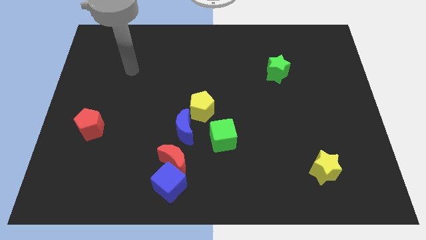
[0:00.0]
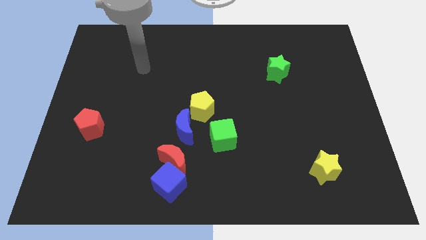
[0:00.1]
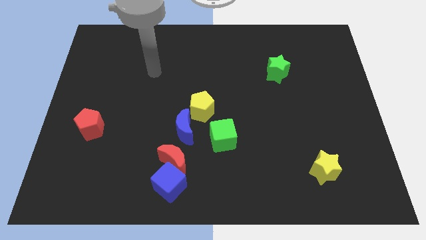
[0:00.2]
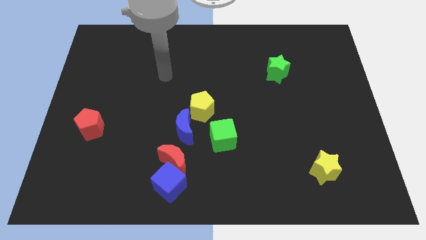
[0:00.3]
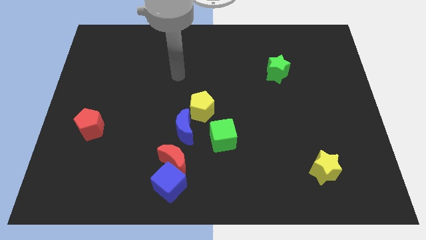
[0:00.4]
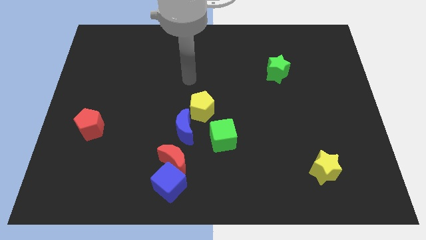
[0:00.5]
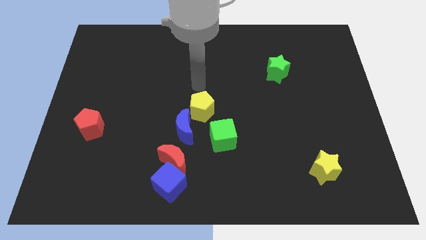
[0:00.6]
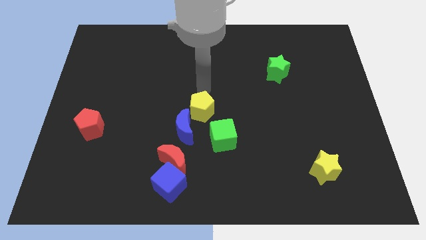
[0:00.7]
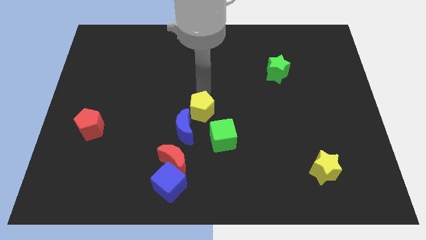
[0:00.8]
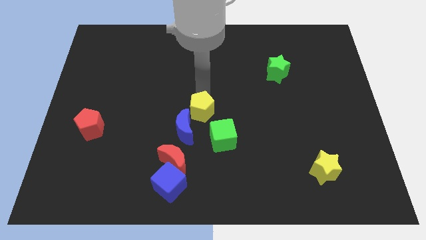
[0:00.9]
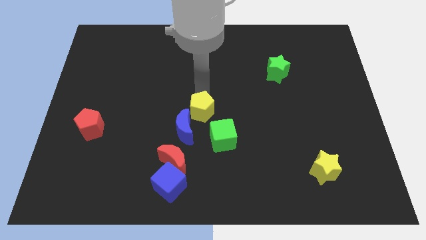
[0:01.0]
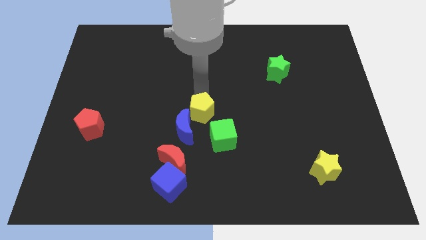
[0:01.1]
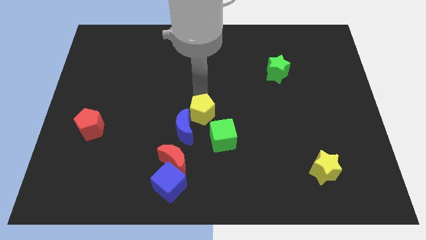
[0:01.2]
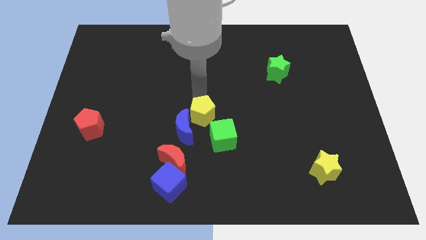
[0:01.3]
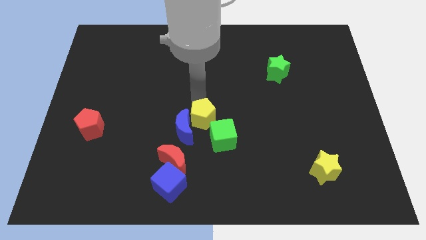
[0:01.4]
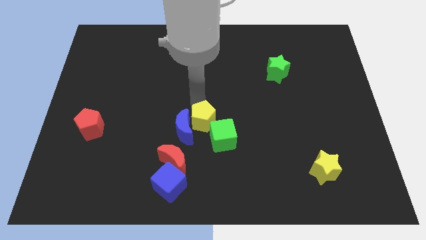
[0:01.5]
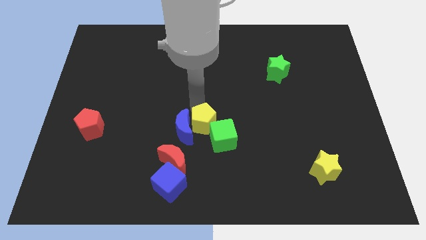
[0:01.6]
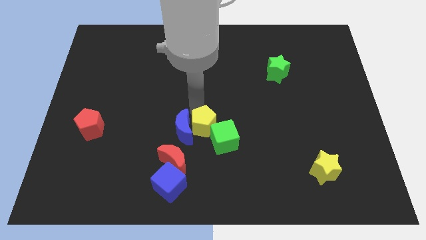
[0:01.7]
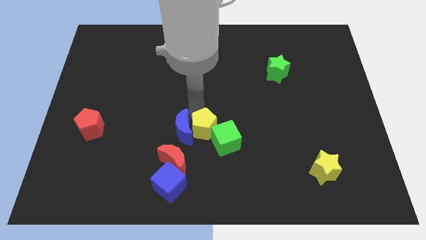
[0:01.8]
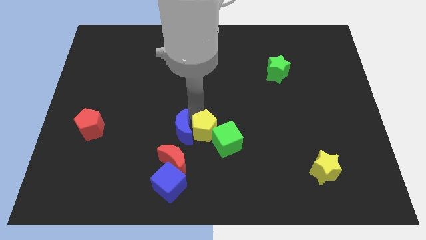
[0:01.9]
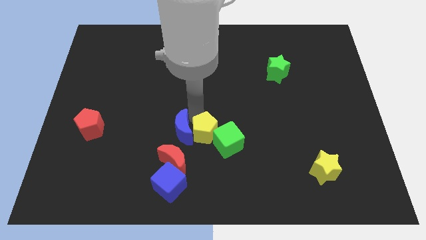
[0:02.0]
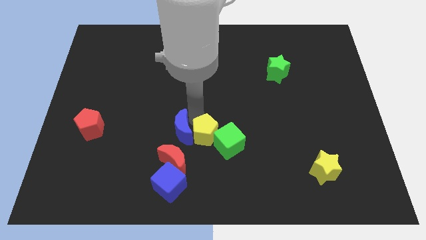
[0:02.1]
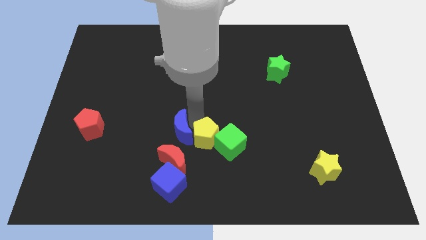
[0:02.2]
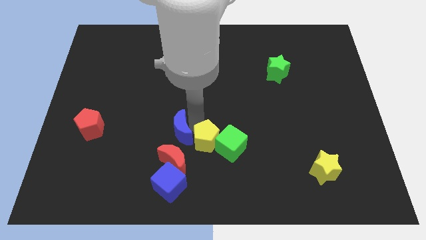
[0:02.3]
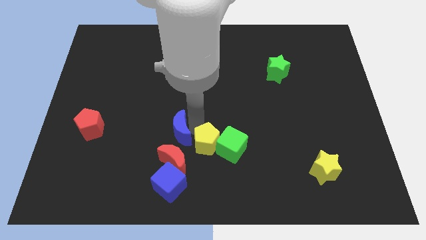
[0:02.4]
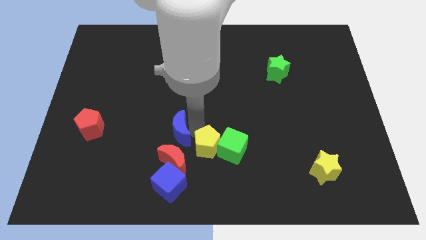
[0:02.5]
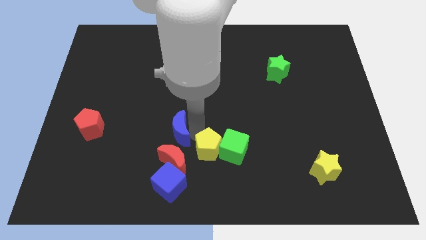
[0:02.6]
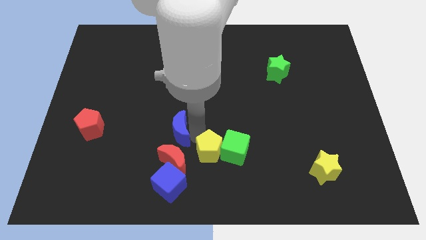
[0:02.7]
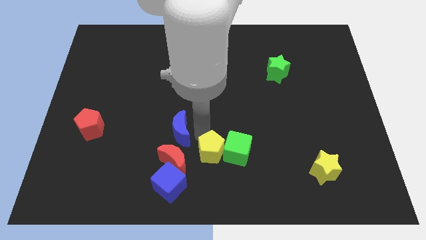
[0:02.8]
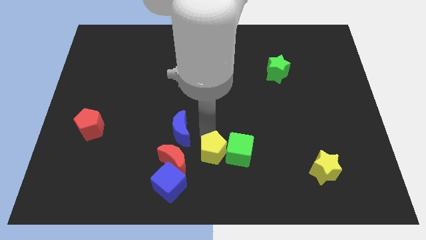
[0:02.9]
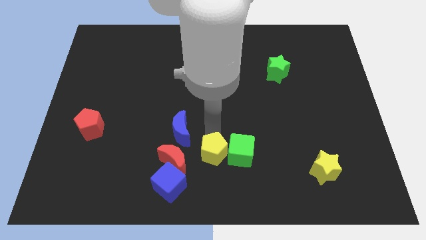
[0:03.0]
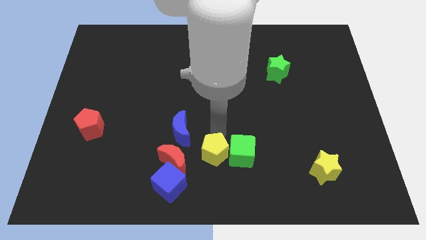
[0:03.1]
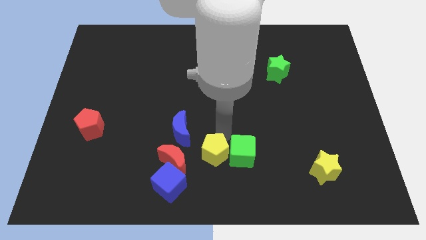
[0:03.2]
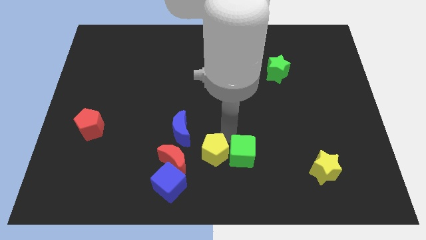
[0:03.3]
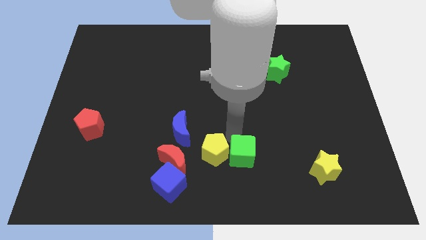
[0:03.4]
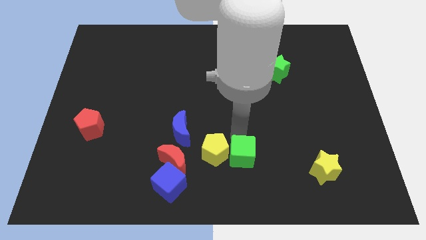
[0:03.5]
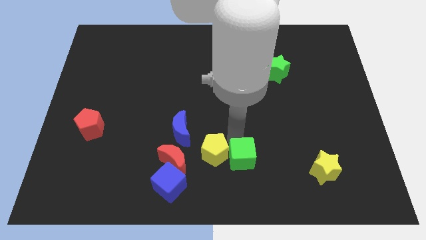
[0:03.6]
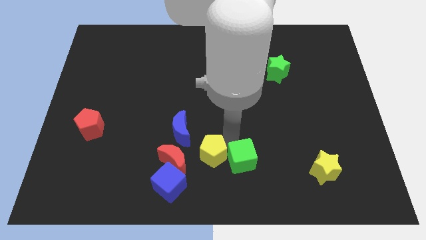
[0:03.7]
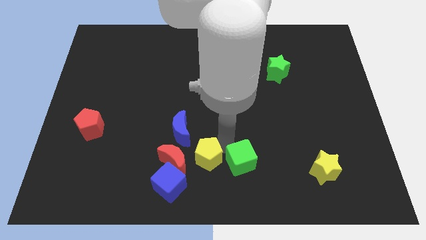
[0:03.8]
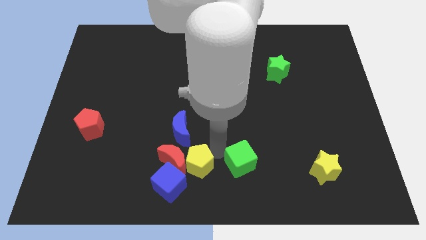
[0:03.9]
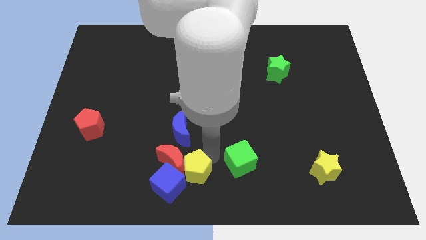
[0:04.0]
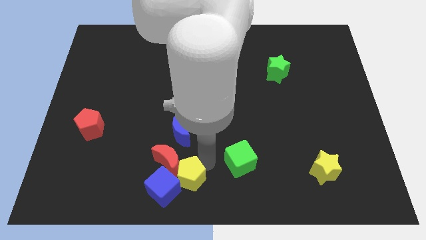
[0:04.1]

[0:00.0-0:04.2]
slide the yellow pentagon to the blue cube

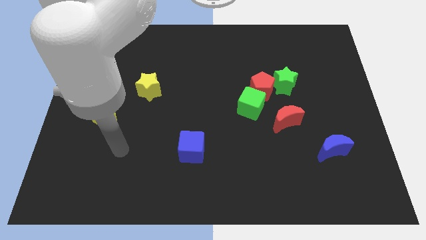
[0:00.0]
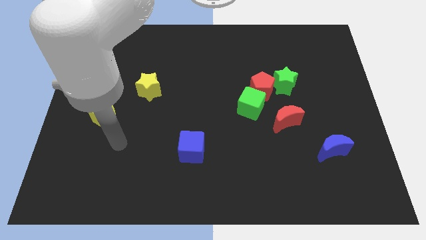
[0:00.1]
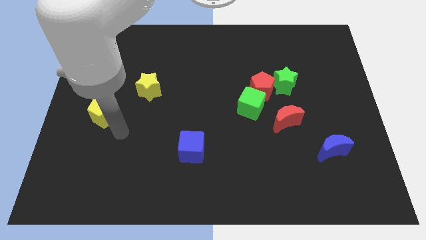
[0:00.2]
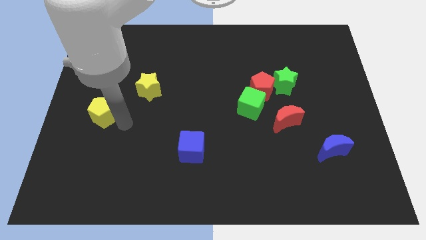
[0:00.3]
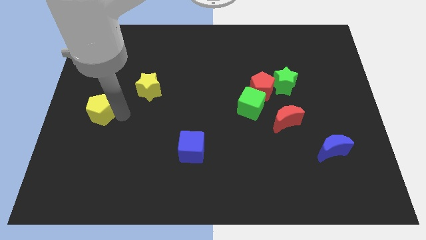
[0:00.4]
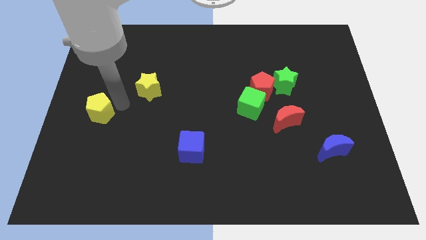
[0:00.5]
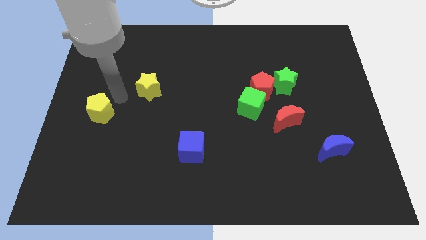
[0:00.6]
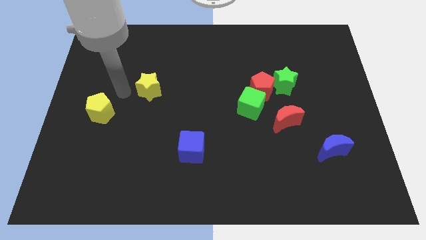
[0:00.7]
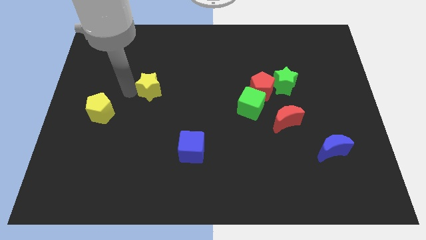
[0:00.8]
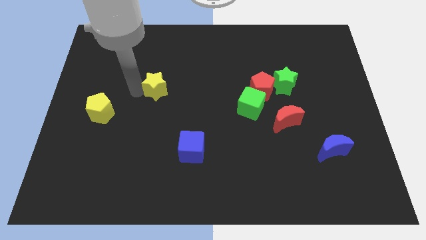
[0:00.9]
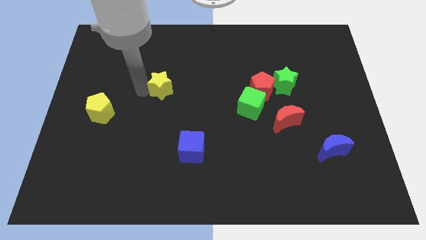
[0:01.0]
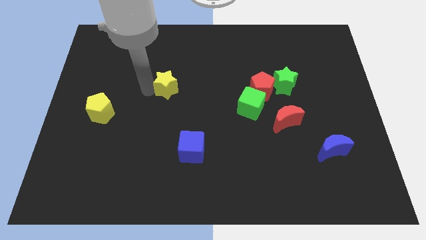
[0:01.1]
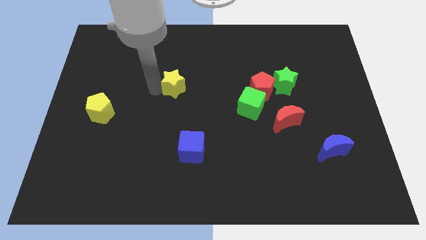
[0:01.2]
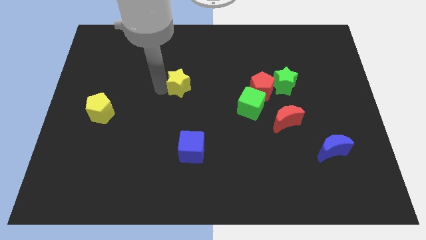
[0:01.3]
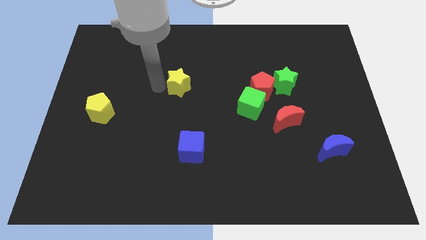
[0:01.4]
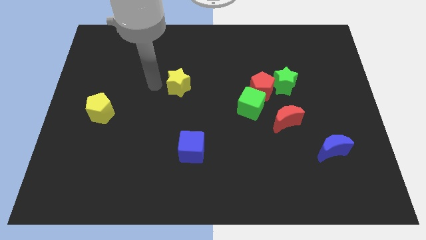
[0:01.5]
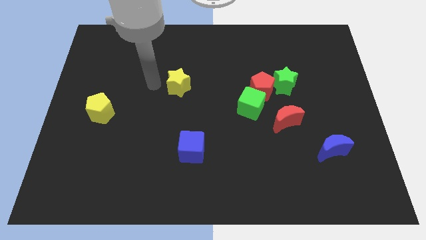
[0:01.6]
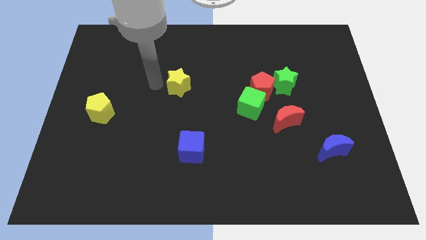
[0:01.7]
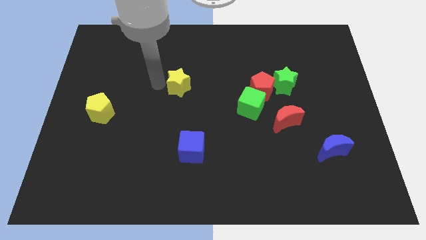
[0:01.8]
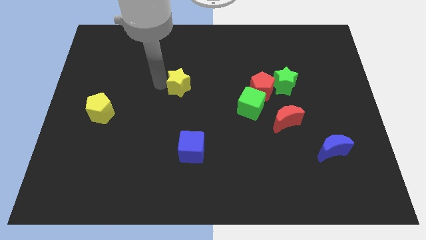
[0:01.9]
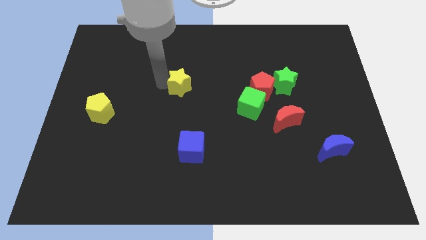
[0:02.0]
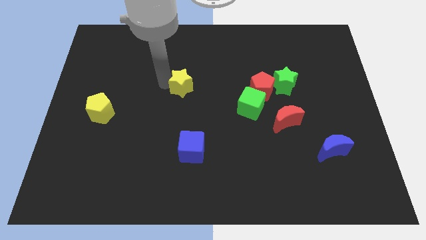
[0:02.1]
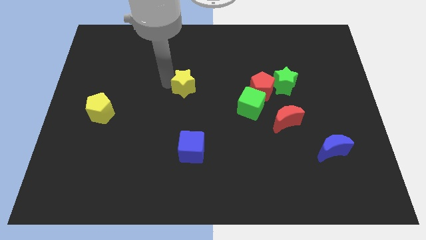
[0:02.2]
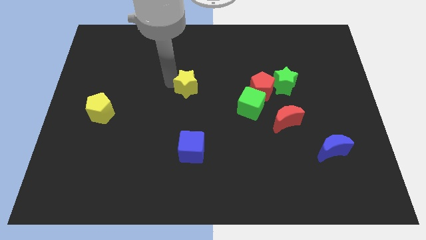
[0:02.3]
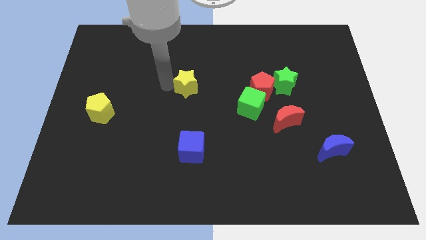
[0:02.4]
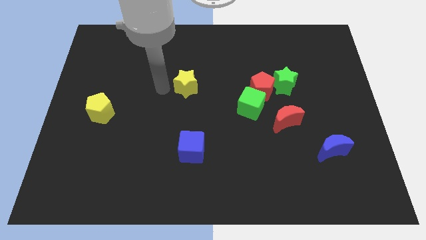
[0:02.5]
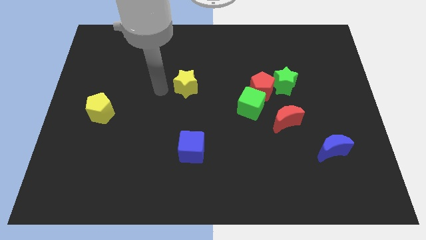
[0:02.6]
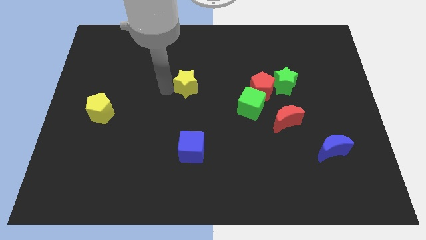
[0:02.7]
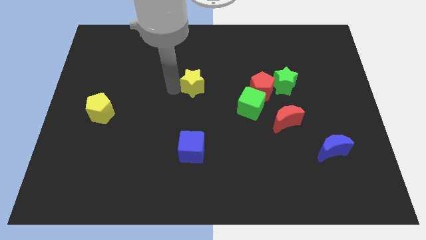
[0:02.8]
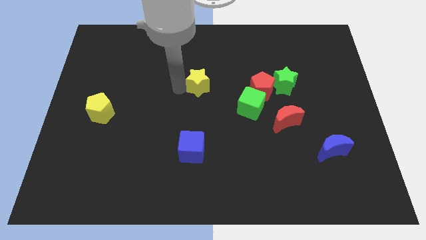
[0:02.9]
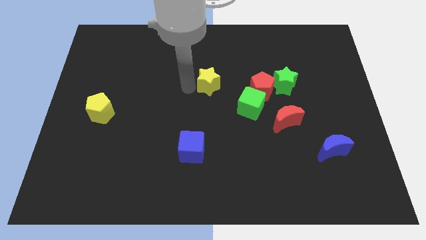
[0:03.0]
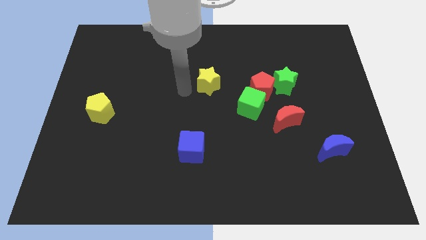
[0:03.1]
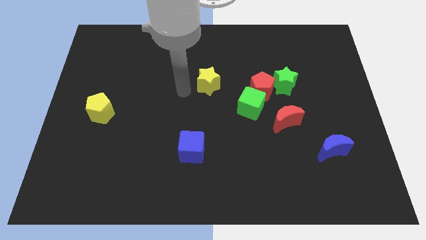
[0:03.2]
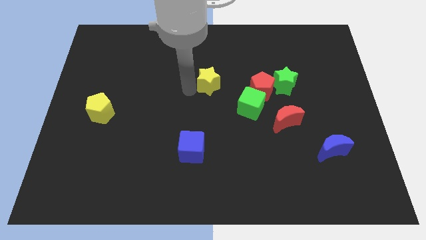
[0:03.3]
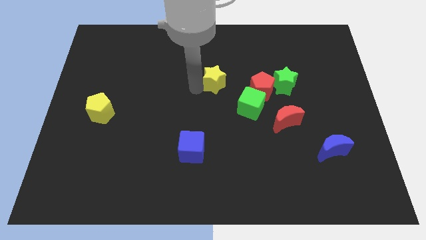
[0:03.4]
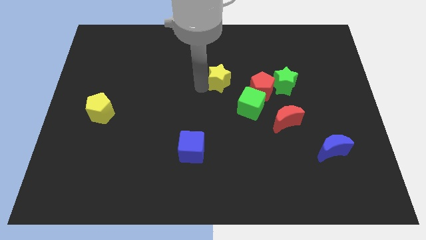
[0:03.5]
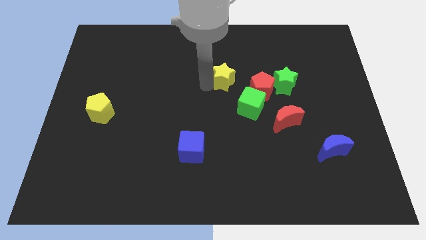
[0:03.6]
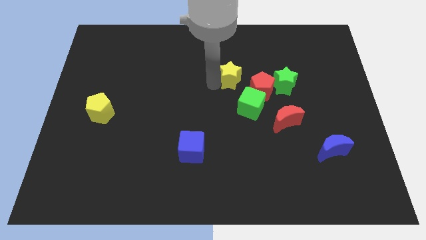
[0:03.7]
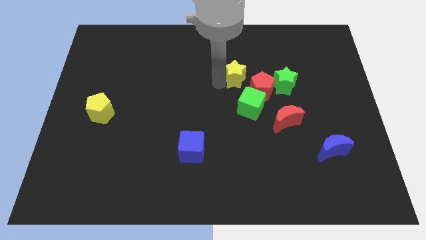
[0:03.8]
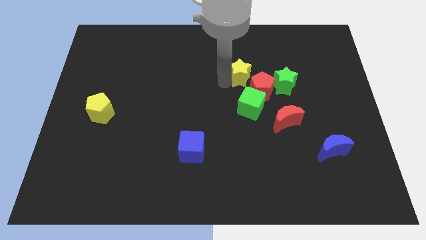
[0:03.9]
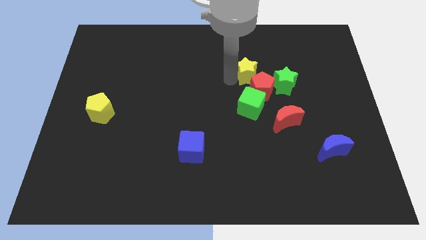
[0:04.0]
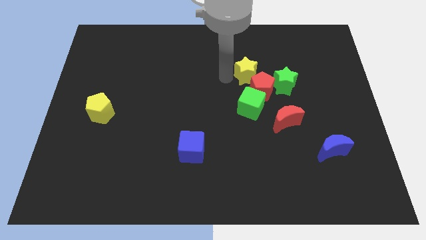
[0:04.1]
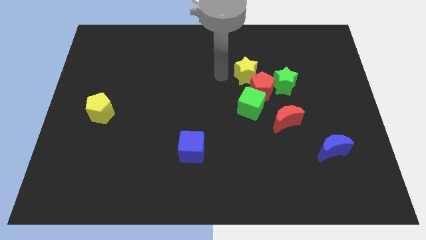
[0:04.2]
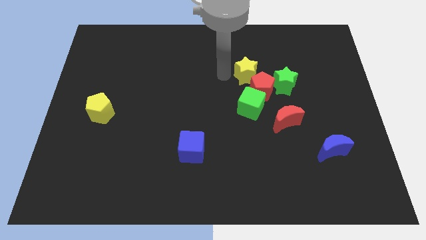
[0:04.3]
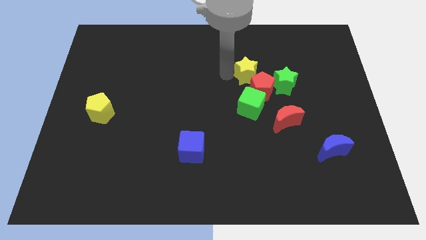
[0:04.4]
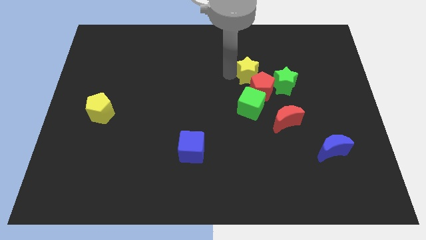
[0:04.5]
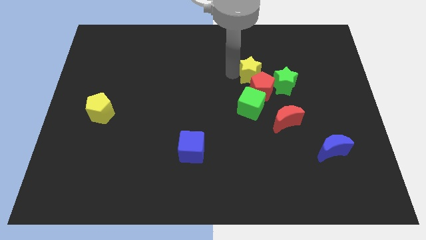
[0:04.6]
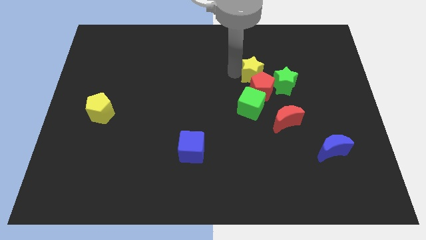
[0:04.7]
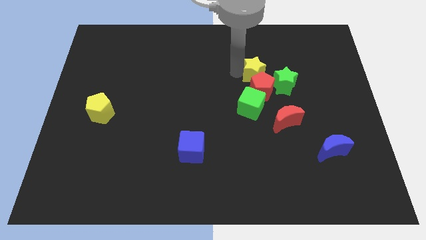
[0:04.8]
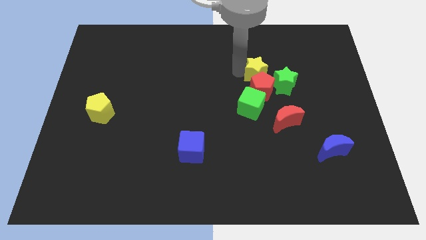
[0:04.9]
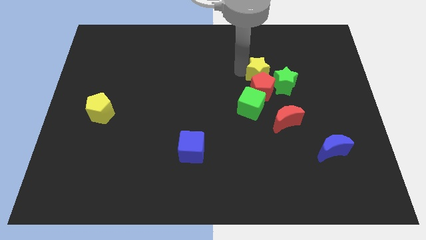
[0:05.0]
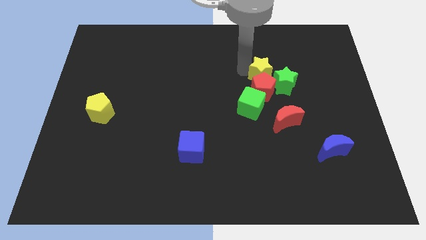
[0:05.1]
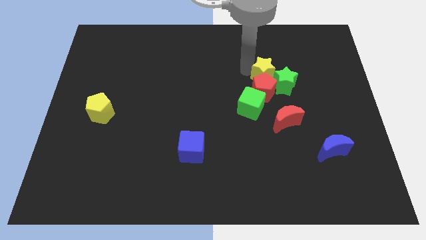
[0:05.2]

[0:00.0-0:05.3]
push the yellow star close to the green star
